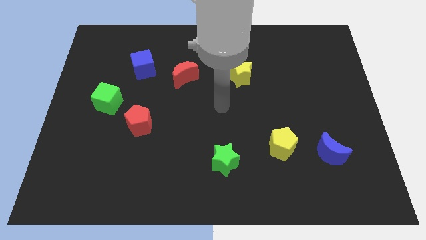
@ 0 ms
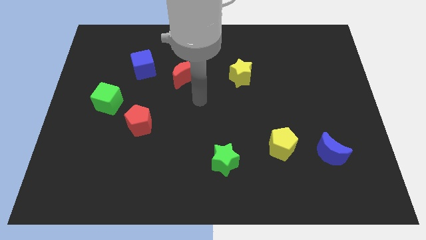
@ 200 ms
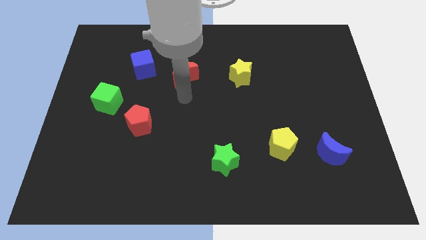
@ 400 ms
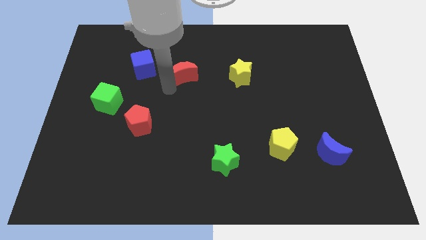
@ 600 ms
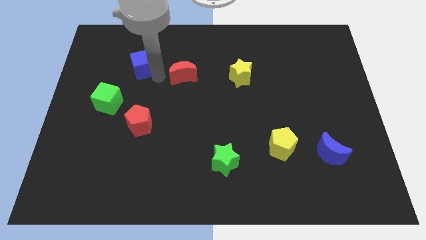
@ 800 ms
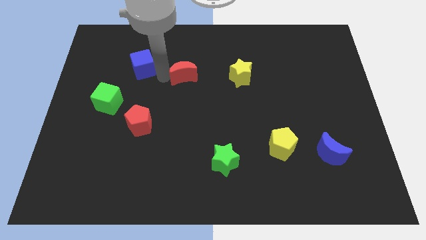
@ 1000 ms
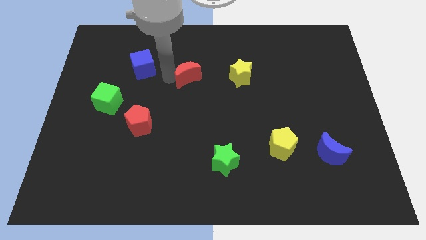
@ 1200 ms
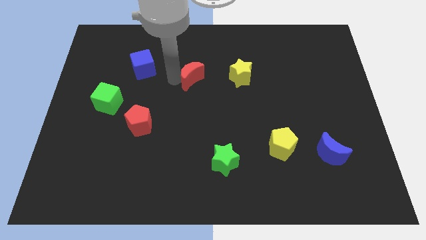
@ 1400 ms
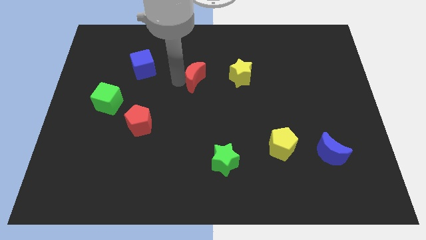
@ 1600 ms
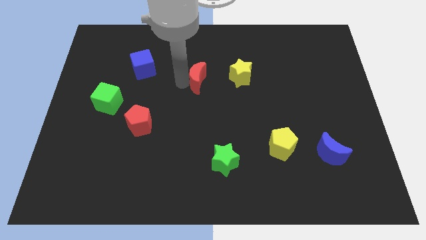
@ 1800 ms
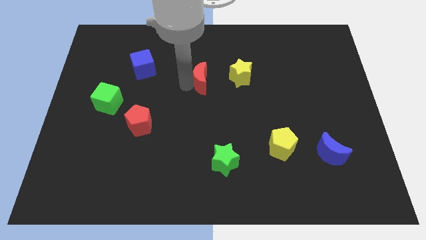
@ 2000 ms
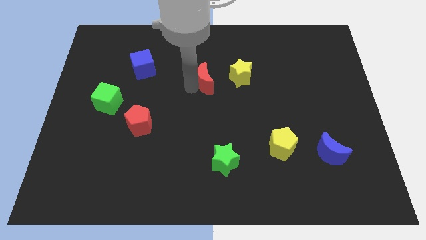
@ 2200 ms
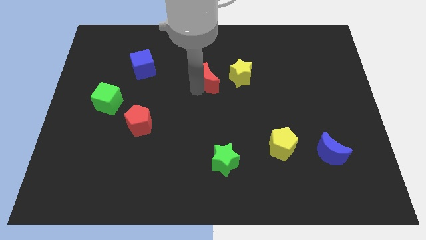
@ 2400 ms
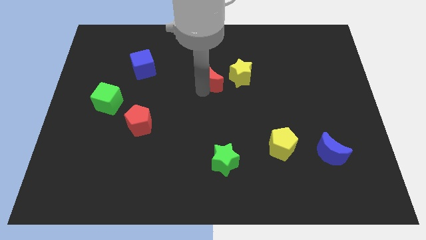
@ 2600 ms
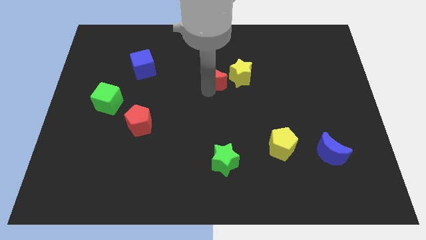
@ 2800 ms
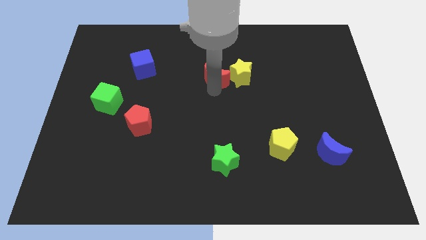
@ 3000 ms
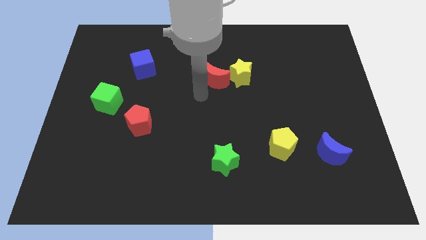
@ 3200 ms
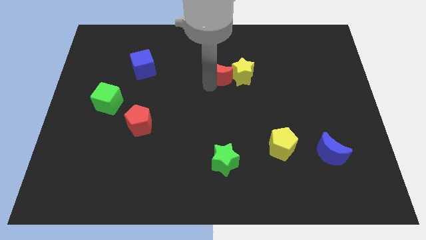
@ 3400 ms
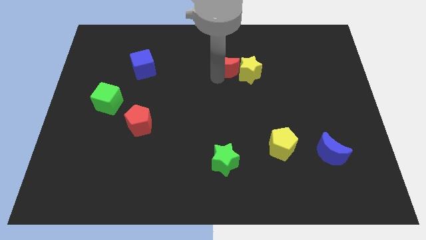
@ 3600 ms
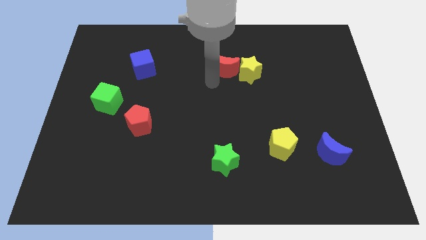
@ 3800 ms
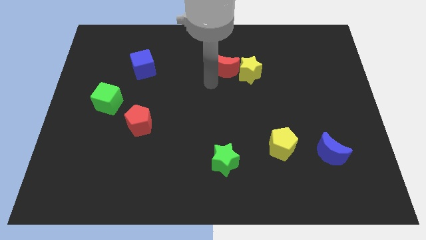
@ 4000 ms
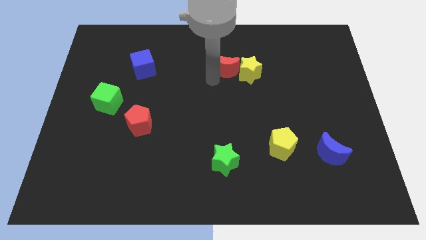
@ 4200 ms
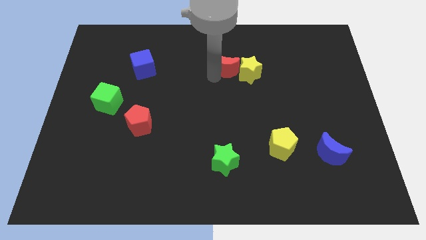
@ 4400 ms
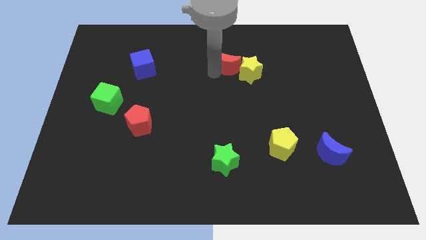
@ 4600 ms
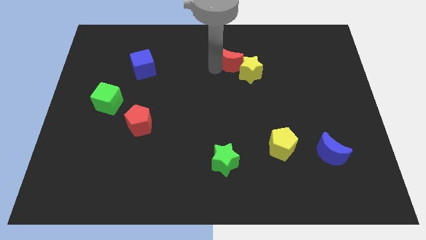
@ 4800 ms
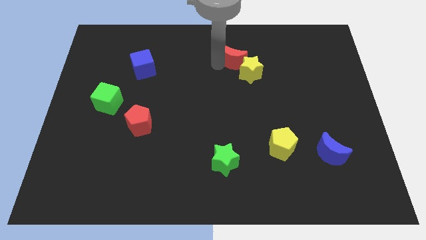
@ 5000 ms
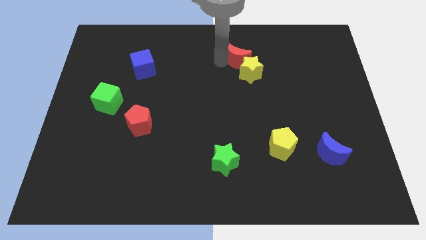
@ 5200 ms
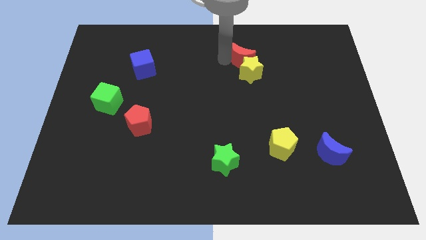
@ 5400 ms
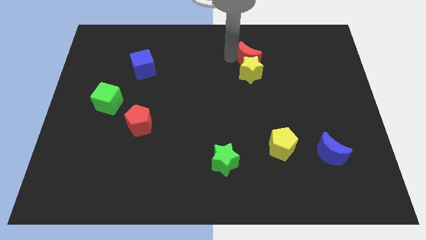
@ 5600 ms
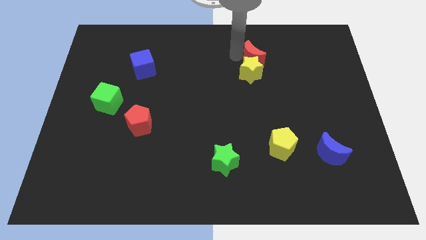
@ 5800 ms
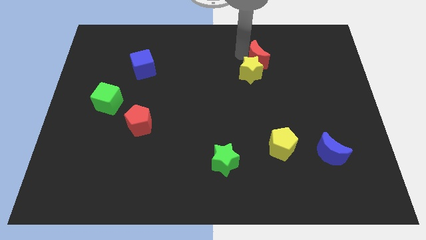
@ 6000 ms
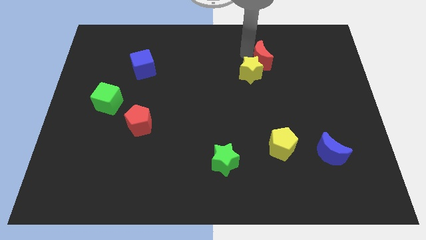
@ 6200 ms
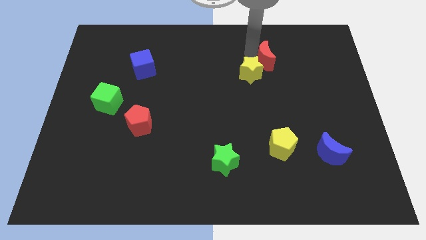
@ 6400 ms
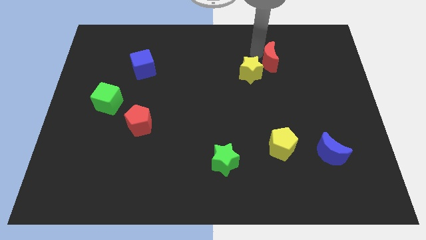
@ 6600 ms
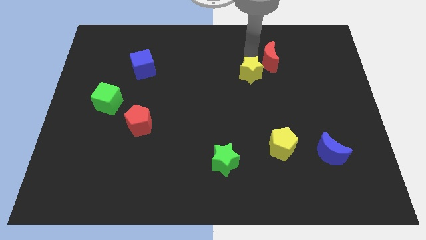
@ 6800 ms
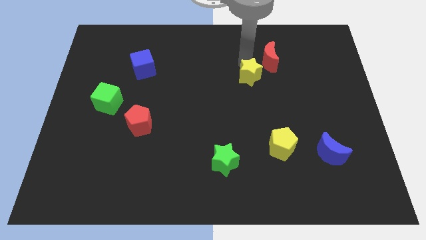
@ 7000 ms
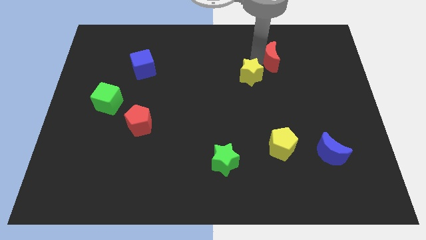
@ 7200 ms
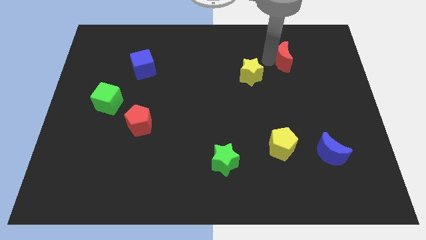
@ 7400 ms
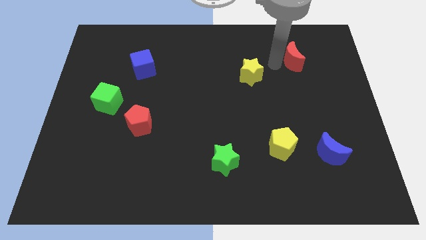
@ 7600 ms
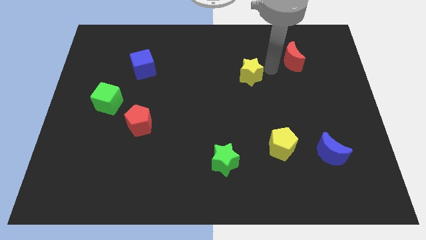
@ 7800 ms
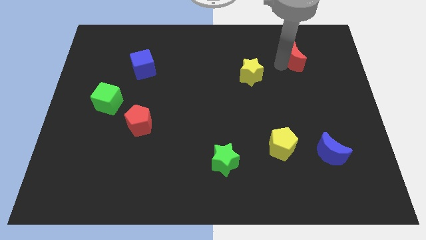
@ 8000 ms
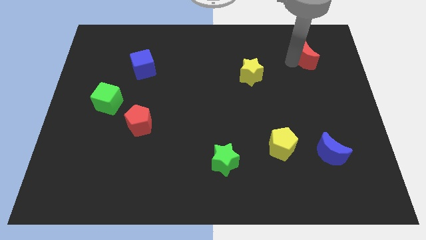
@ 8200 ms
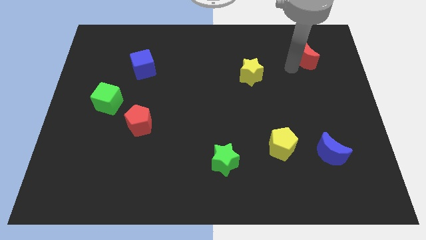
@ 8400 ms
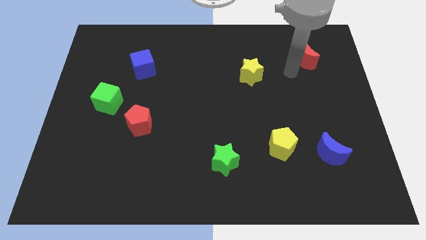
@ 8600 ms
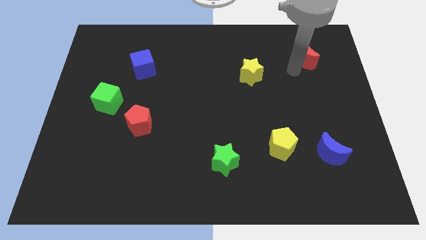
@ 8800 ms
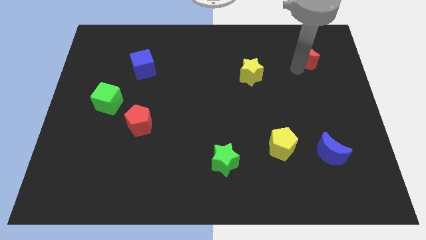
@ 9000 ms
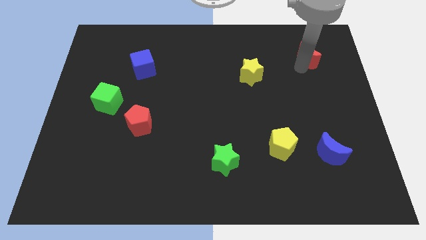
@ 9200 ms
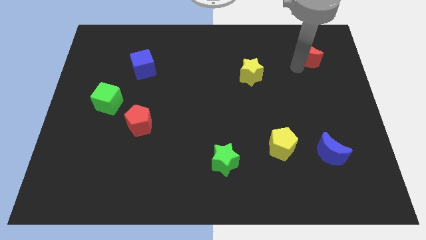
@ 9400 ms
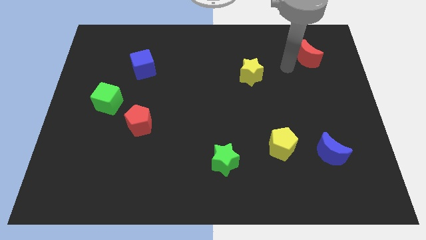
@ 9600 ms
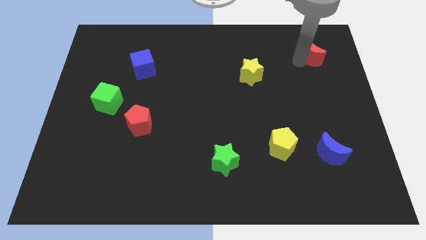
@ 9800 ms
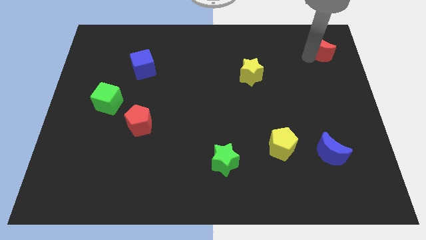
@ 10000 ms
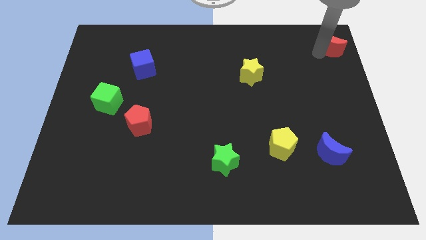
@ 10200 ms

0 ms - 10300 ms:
push the red moon to the top right of the board
